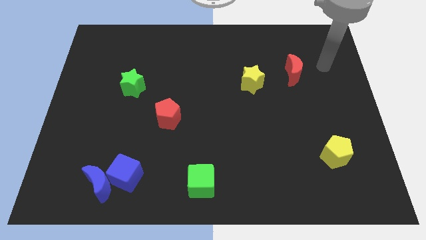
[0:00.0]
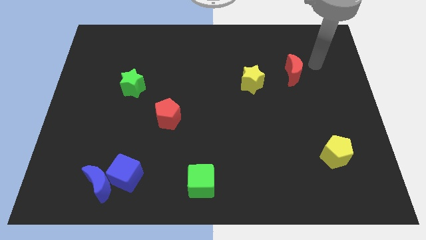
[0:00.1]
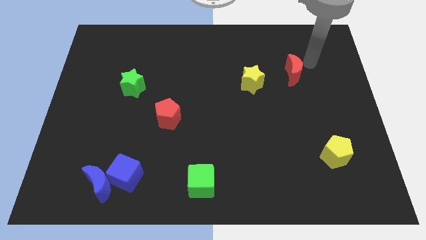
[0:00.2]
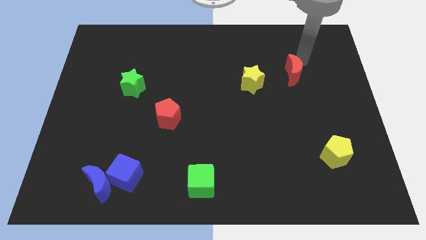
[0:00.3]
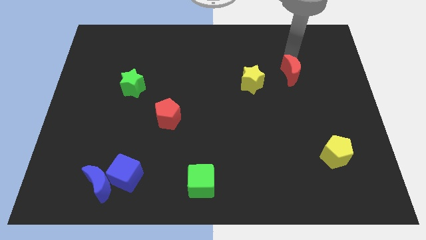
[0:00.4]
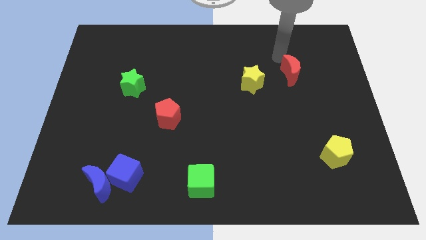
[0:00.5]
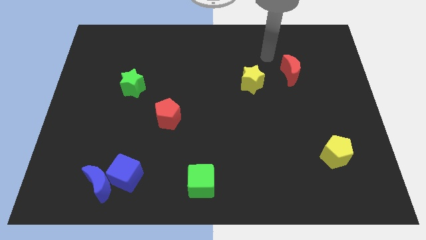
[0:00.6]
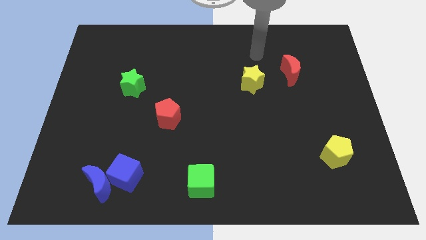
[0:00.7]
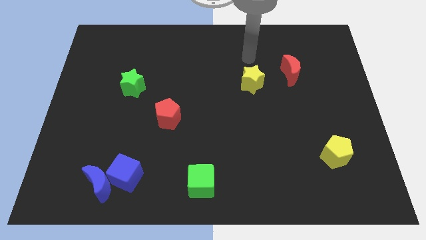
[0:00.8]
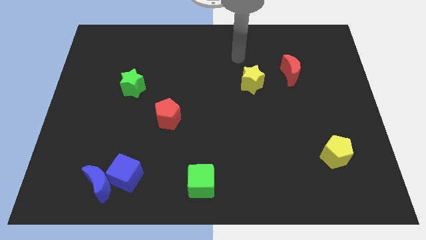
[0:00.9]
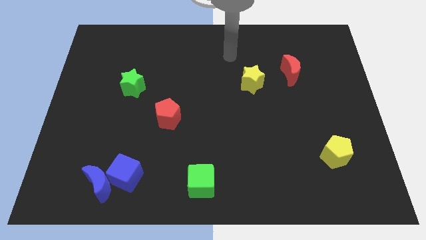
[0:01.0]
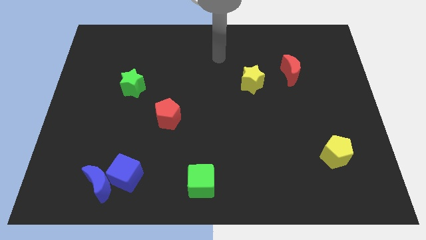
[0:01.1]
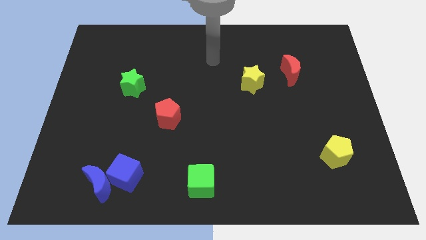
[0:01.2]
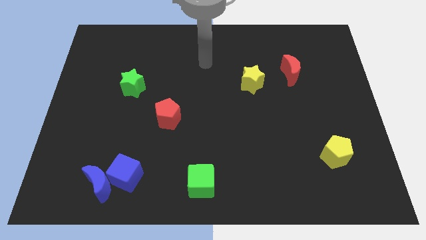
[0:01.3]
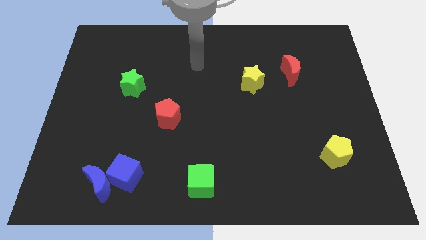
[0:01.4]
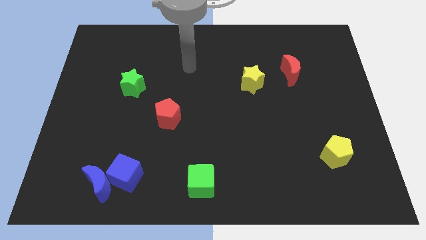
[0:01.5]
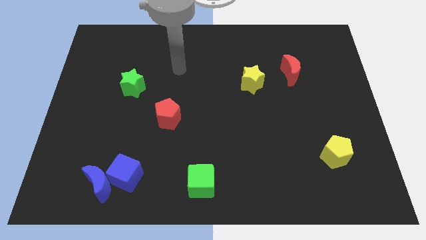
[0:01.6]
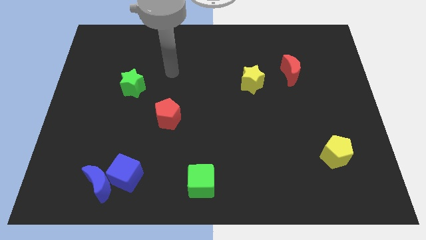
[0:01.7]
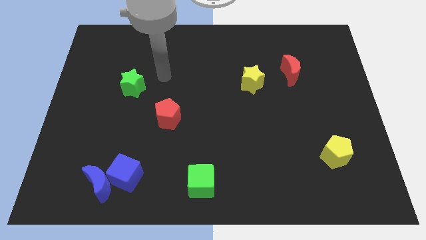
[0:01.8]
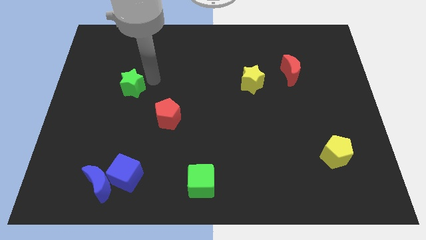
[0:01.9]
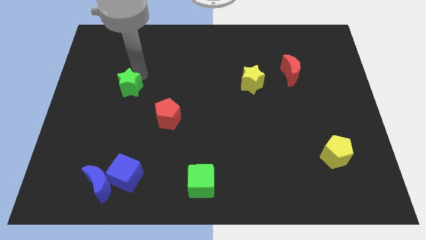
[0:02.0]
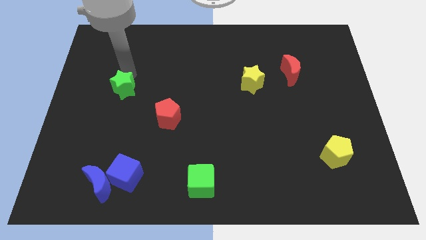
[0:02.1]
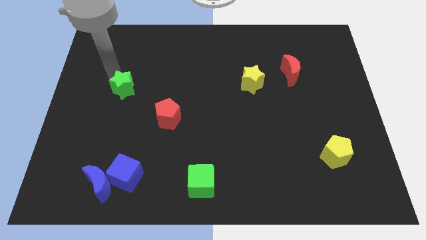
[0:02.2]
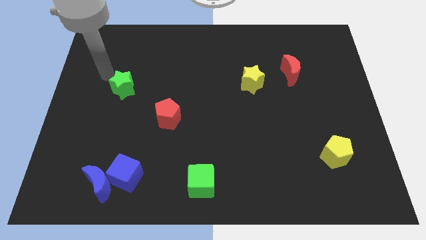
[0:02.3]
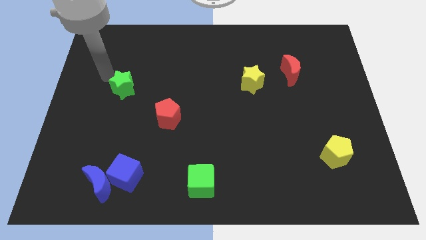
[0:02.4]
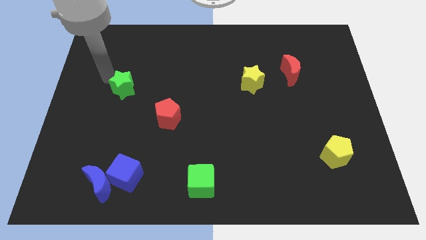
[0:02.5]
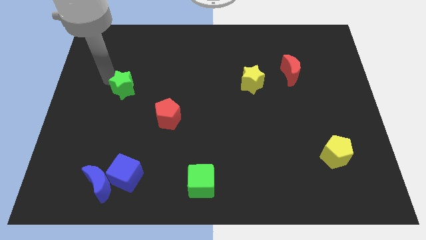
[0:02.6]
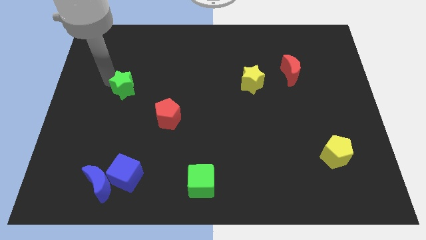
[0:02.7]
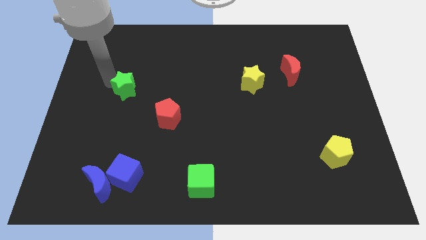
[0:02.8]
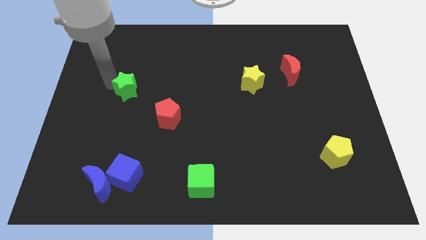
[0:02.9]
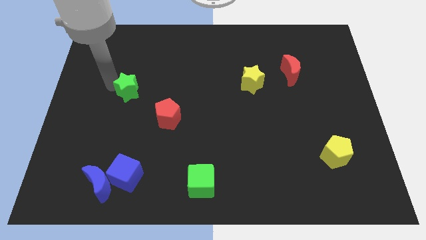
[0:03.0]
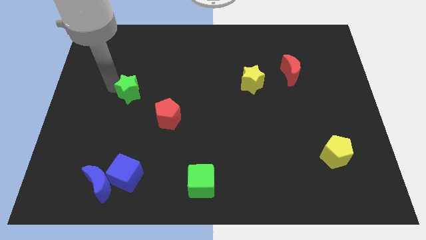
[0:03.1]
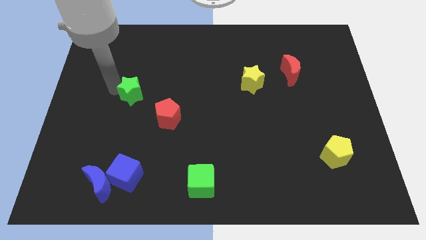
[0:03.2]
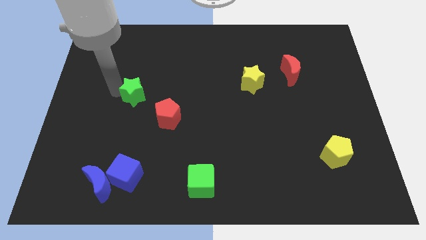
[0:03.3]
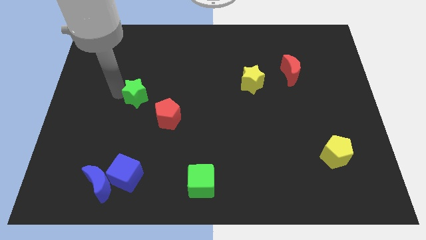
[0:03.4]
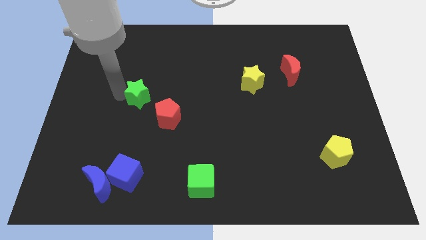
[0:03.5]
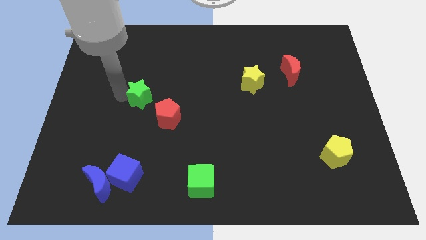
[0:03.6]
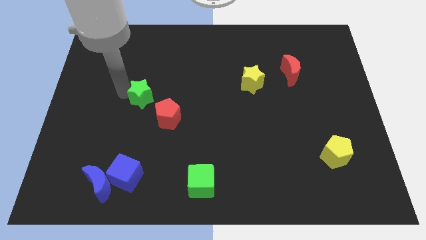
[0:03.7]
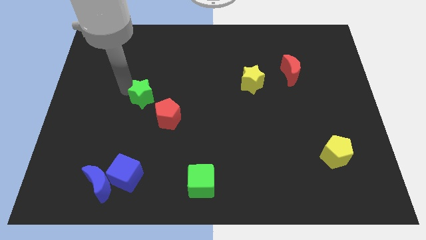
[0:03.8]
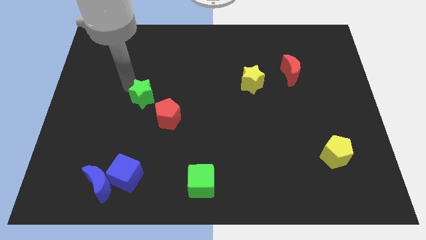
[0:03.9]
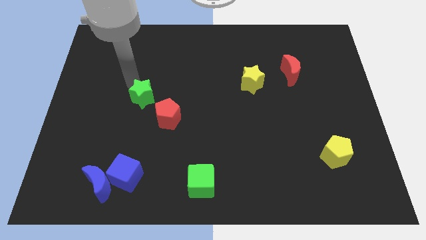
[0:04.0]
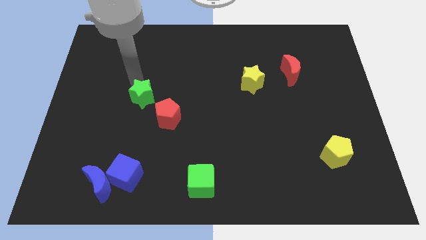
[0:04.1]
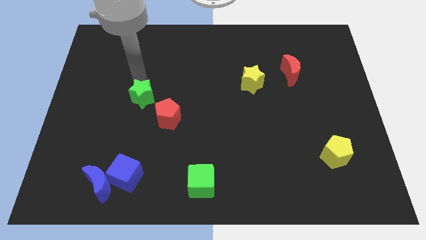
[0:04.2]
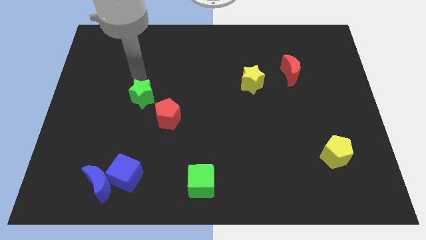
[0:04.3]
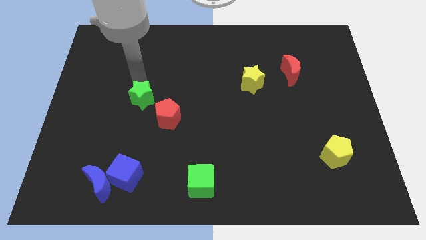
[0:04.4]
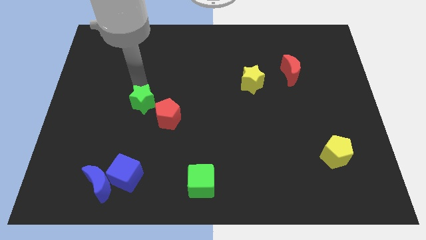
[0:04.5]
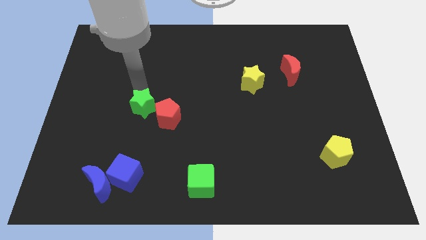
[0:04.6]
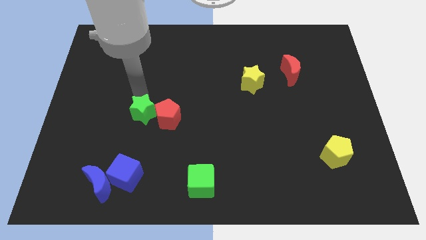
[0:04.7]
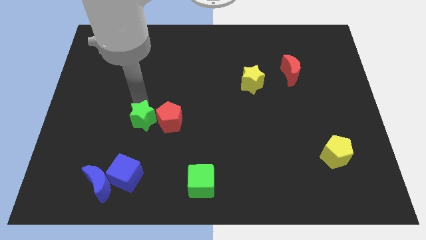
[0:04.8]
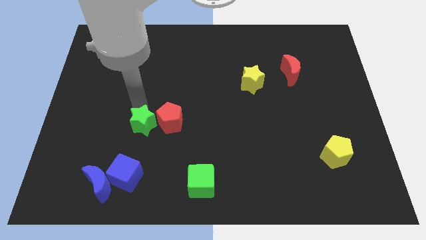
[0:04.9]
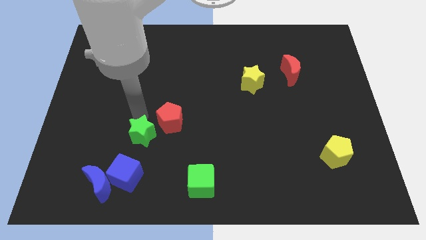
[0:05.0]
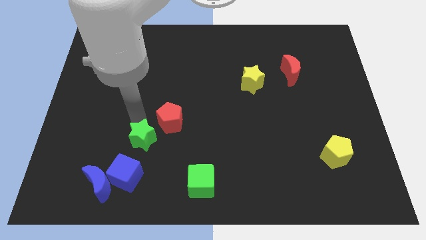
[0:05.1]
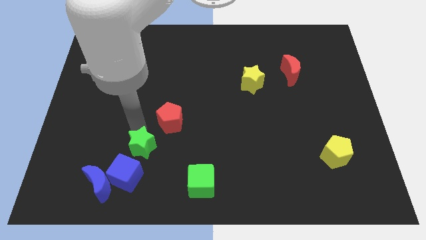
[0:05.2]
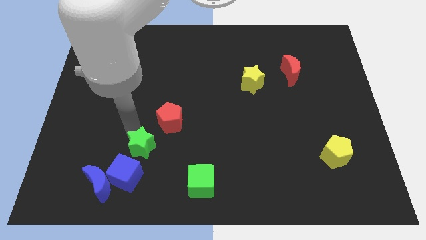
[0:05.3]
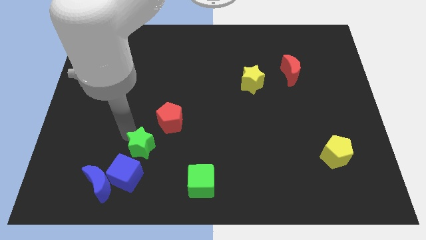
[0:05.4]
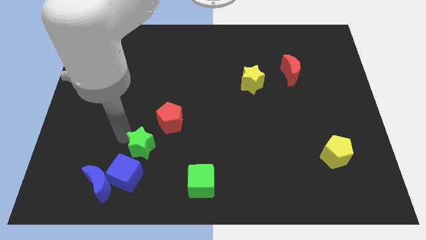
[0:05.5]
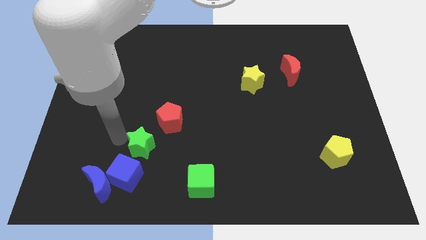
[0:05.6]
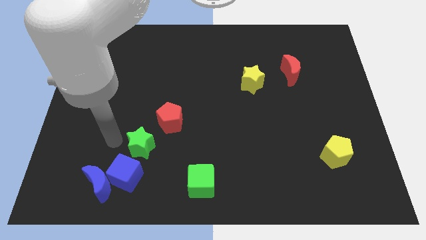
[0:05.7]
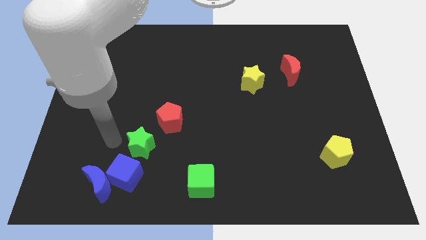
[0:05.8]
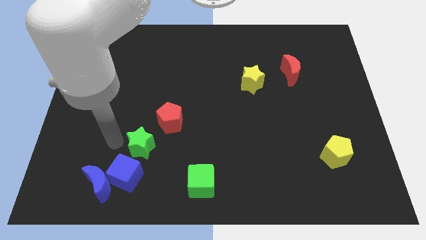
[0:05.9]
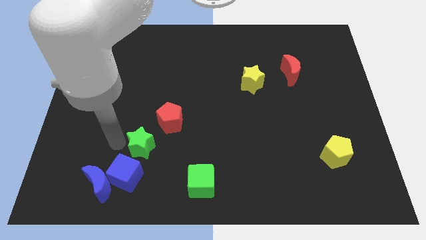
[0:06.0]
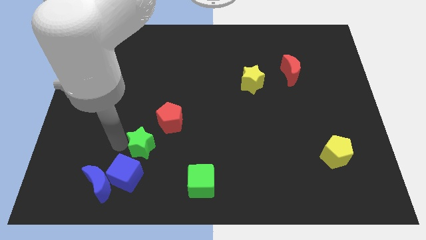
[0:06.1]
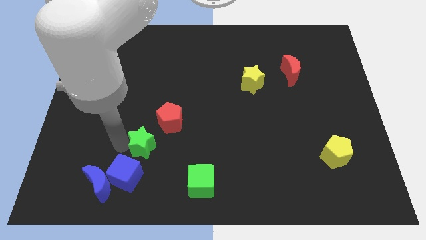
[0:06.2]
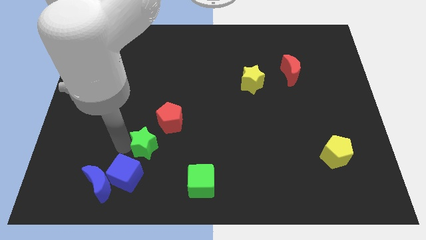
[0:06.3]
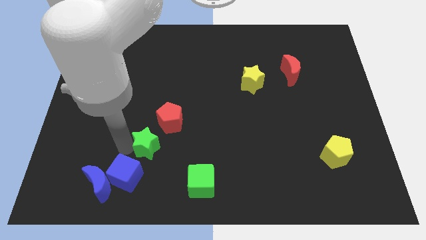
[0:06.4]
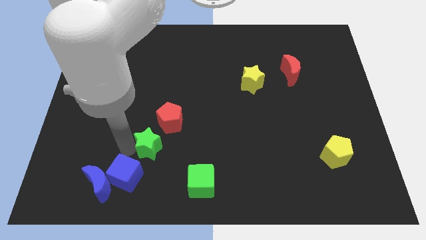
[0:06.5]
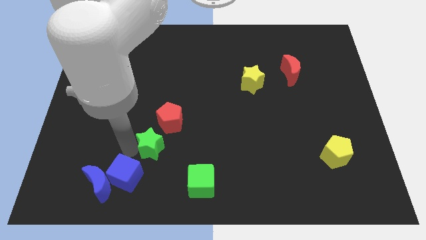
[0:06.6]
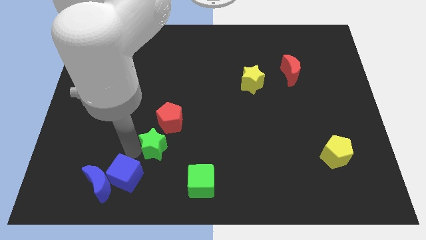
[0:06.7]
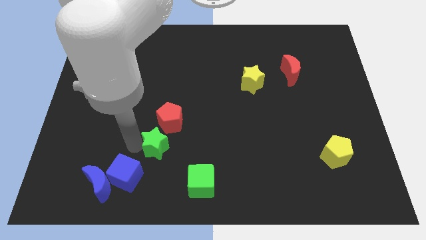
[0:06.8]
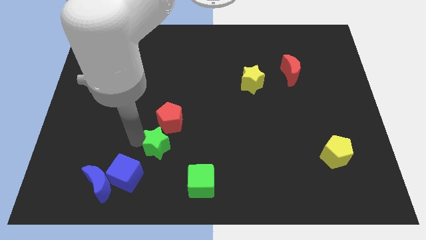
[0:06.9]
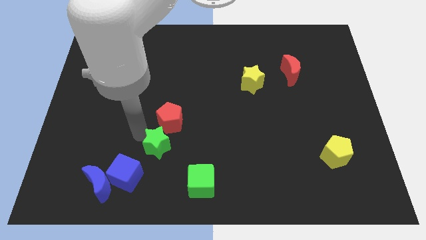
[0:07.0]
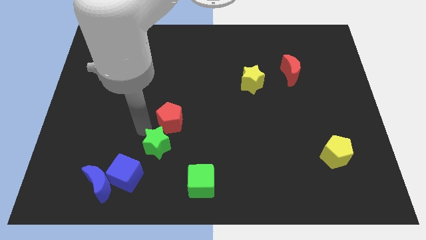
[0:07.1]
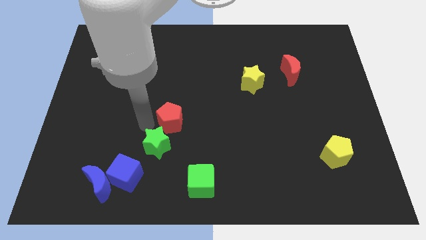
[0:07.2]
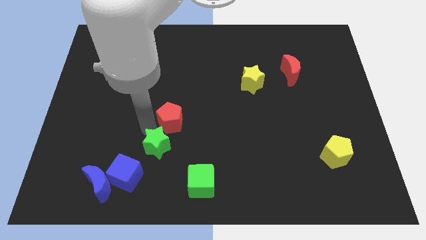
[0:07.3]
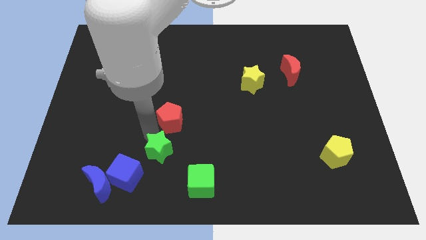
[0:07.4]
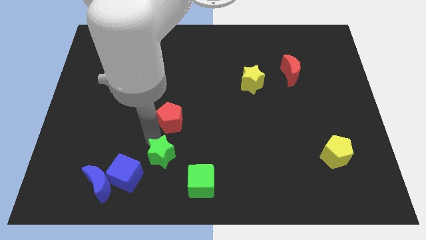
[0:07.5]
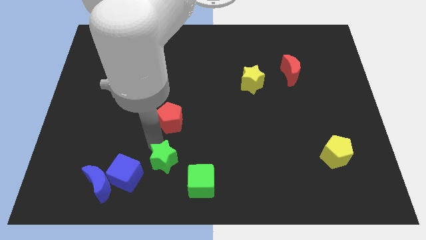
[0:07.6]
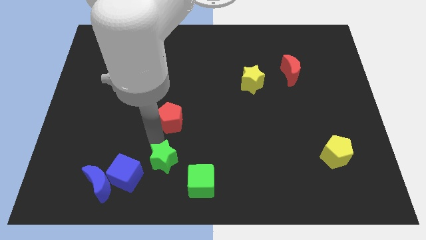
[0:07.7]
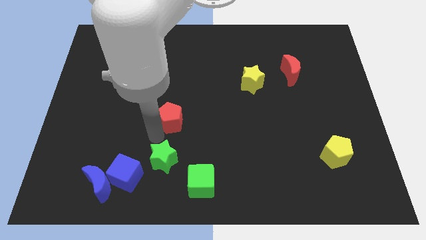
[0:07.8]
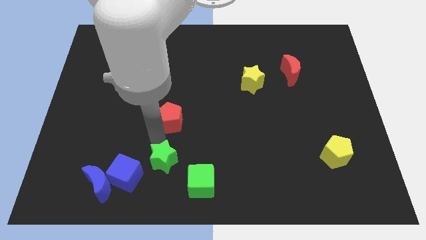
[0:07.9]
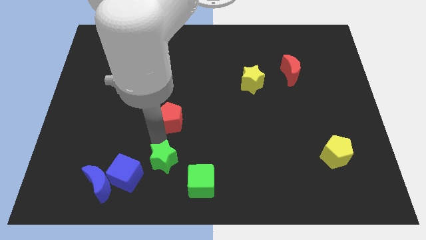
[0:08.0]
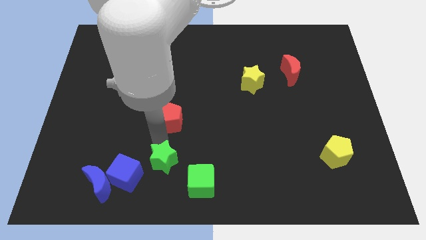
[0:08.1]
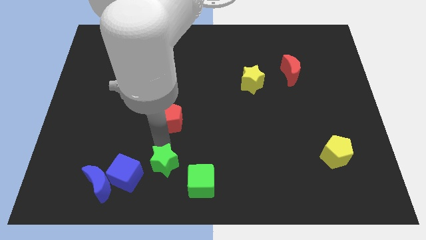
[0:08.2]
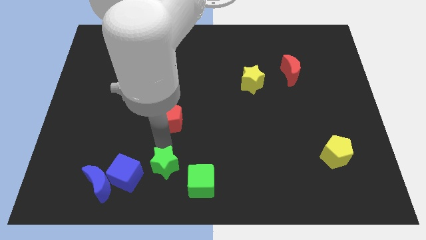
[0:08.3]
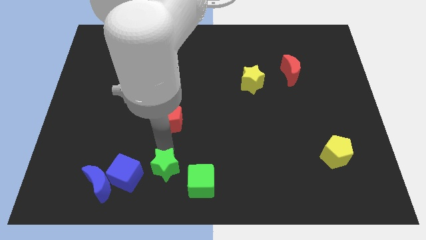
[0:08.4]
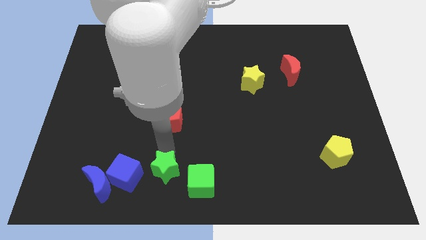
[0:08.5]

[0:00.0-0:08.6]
move the green star to the bottom side
